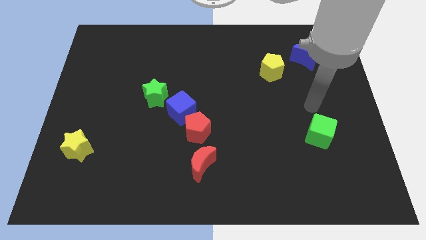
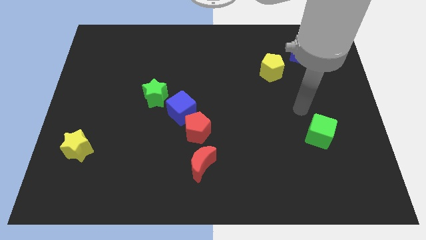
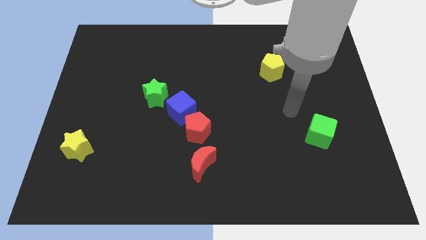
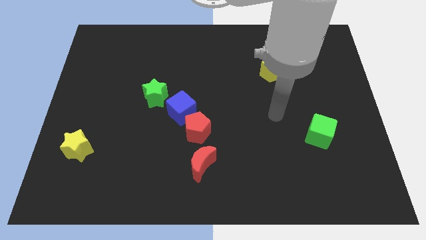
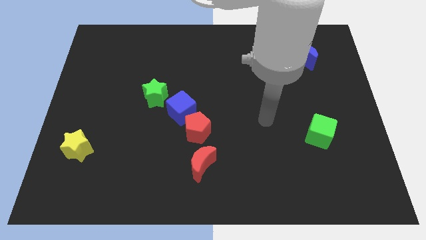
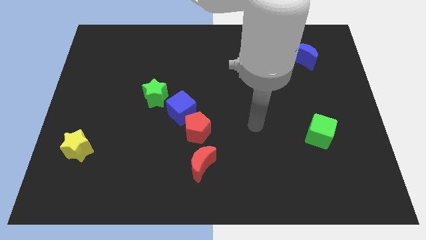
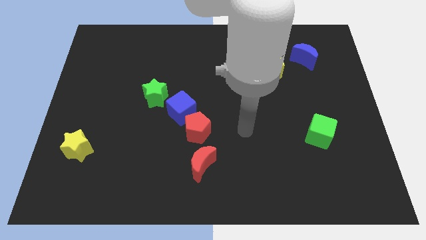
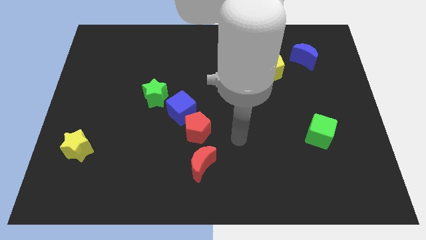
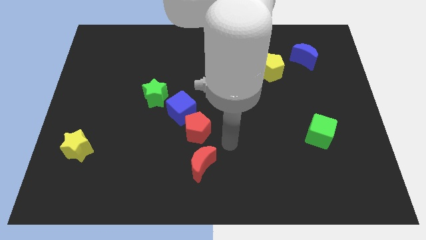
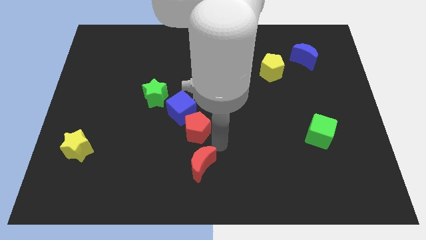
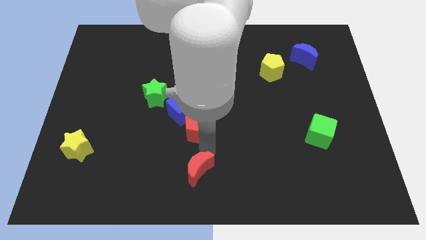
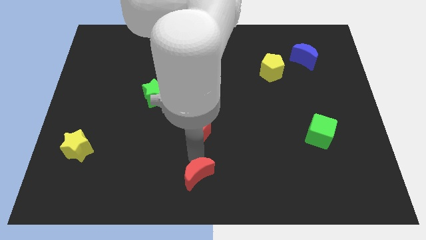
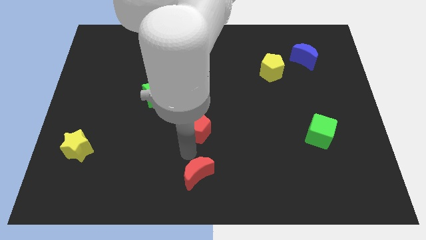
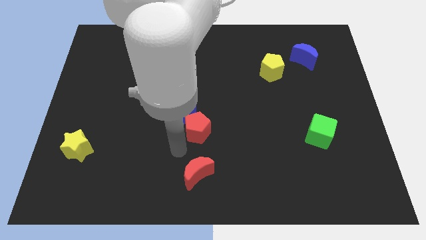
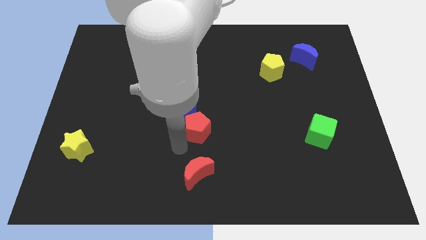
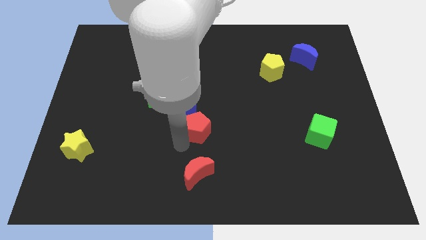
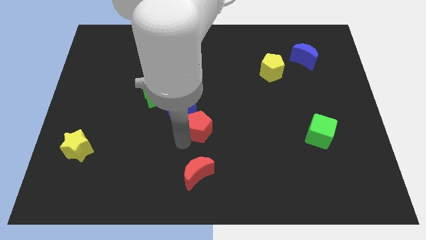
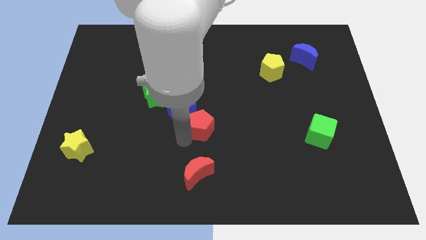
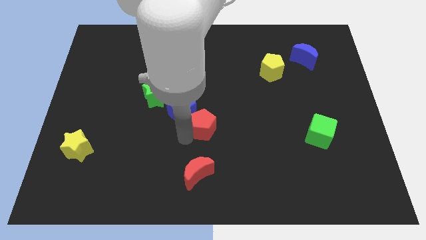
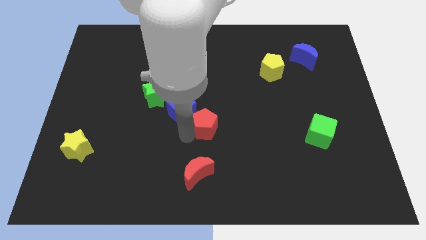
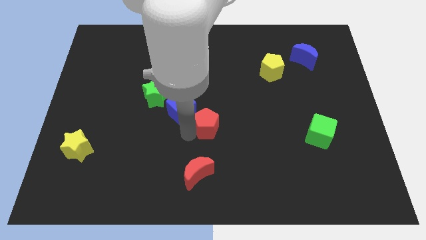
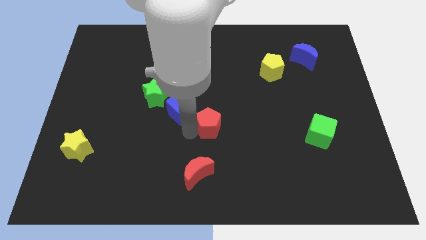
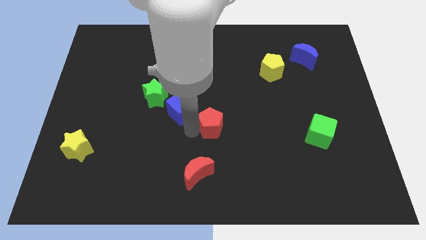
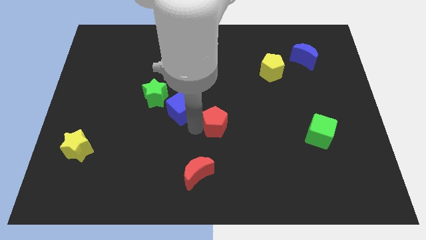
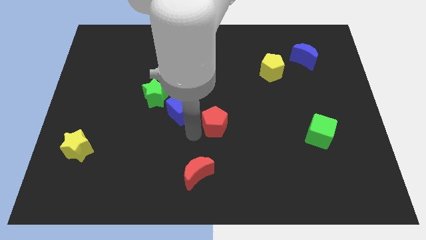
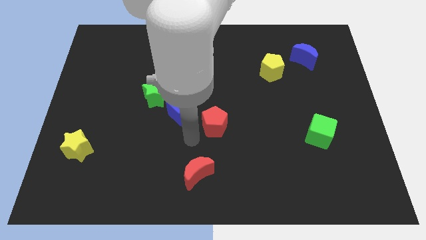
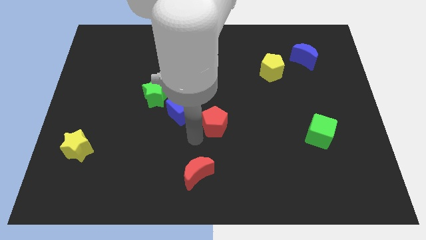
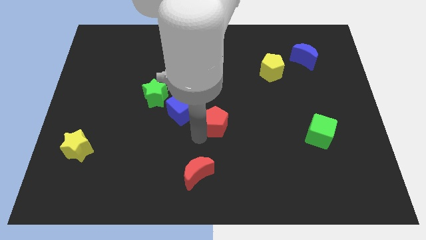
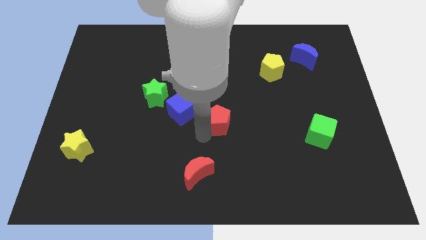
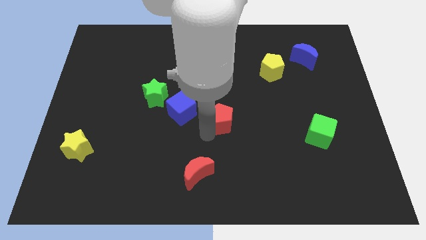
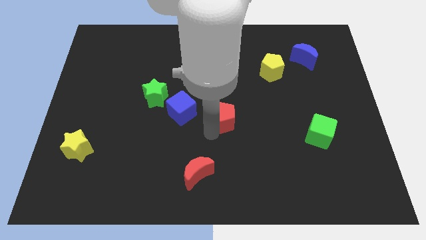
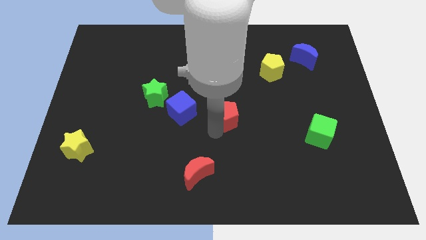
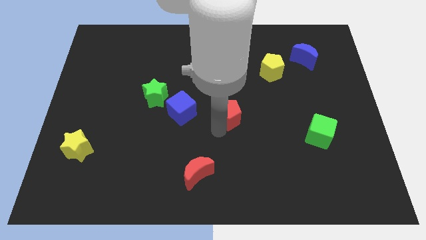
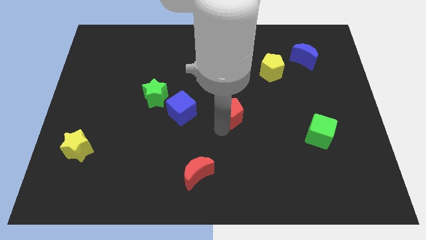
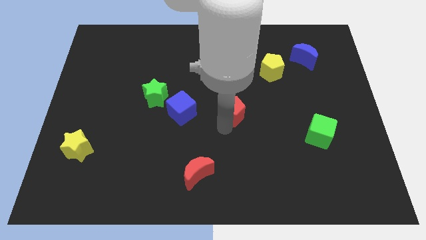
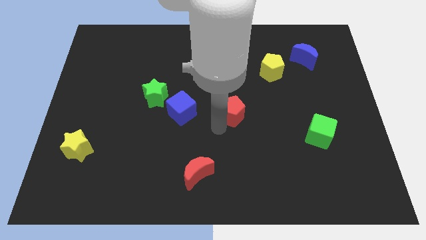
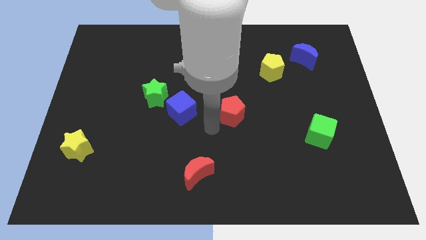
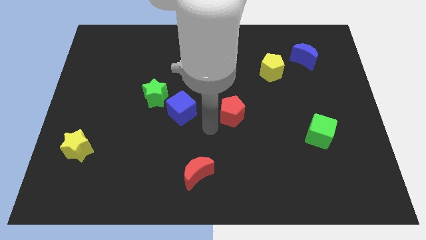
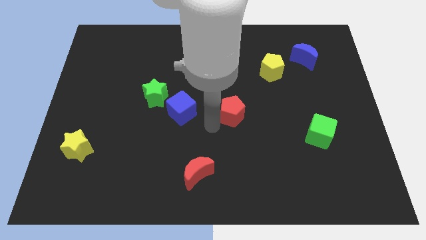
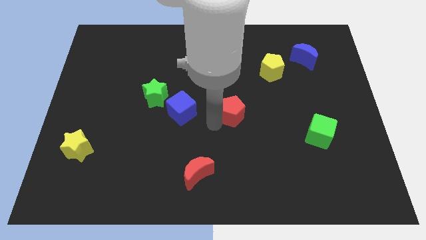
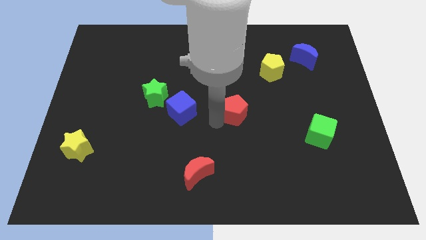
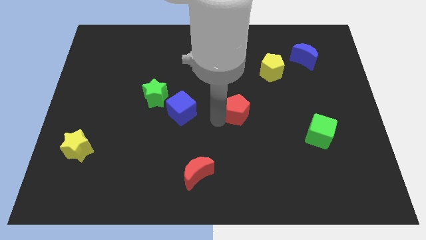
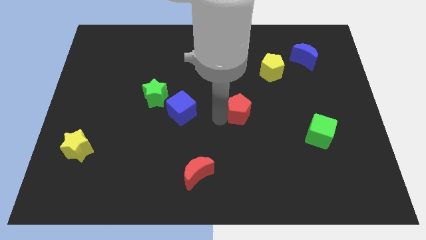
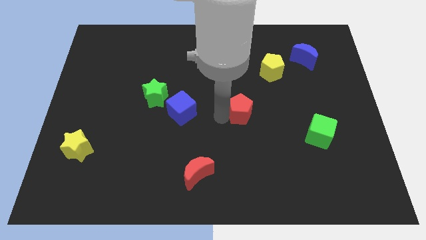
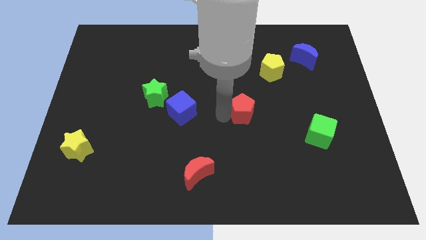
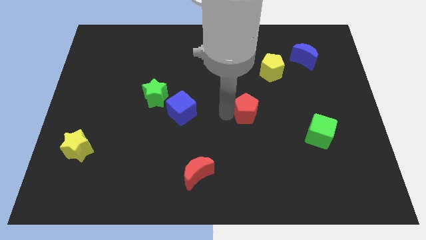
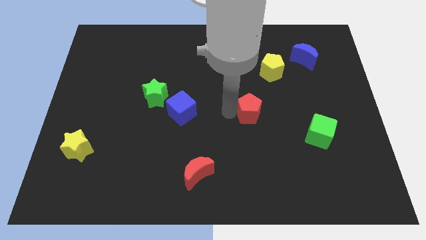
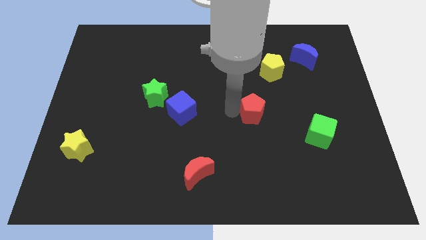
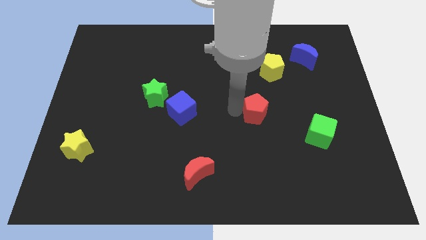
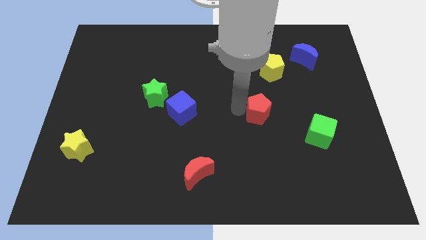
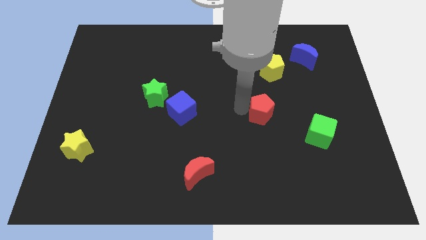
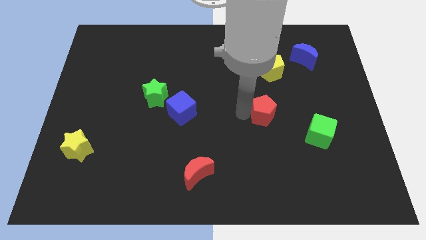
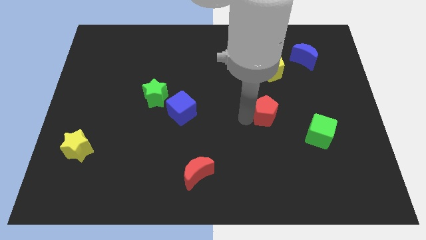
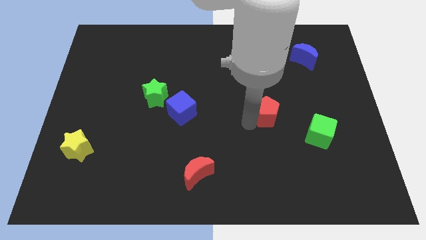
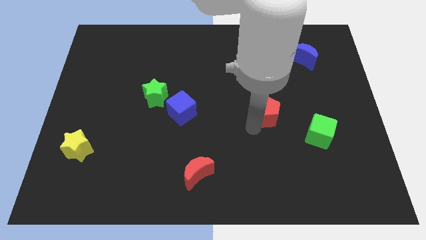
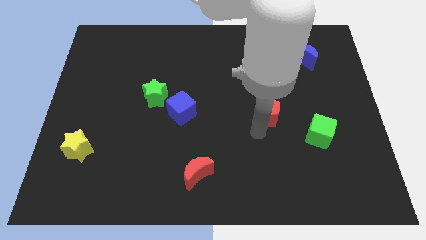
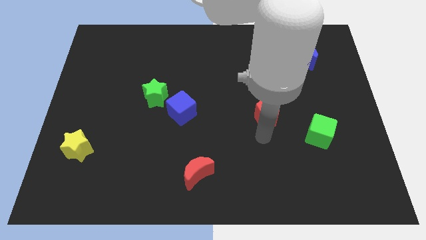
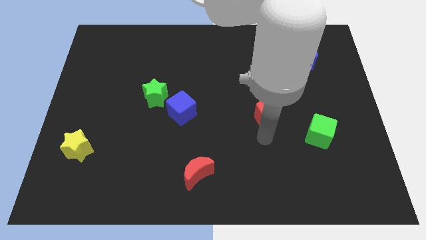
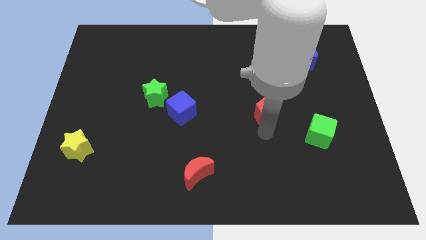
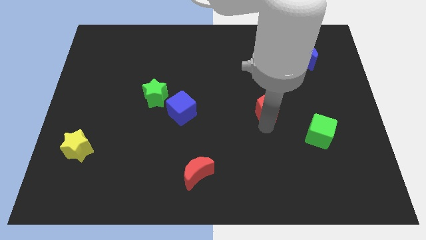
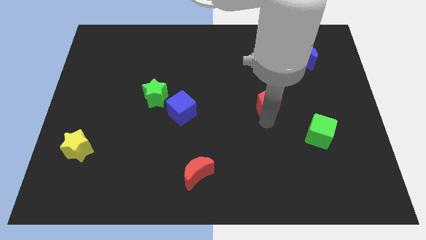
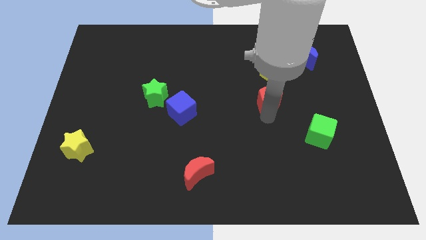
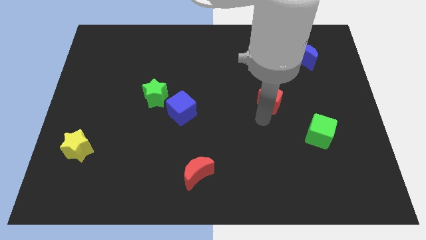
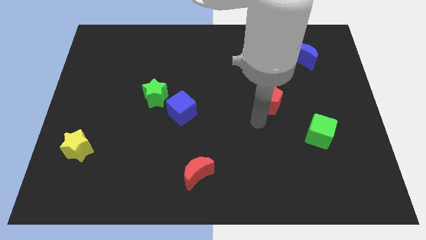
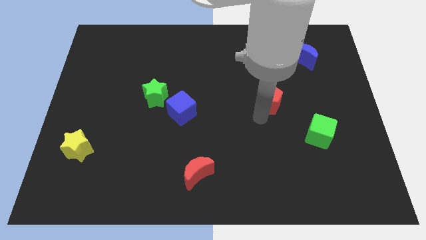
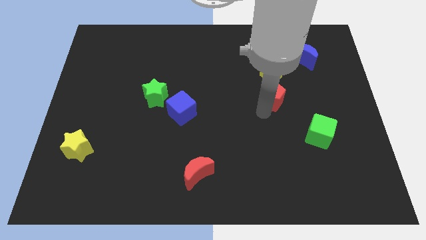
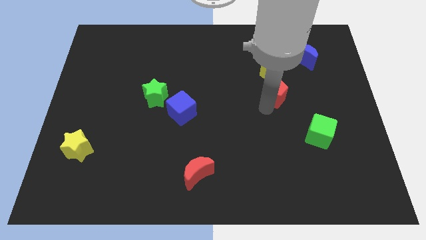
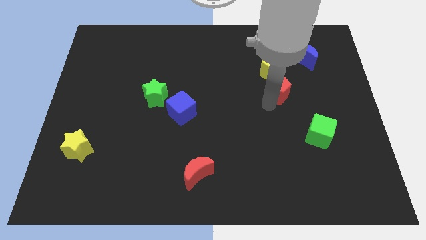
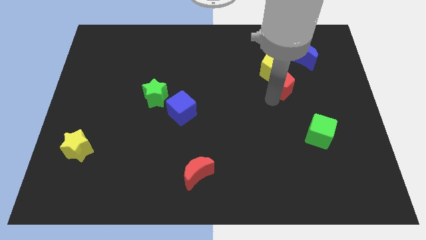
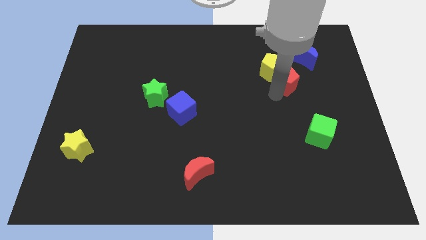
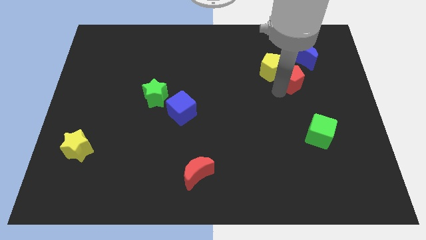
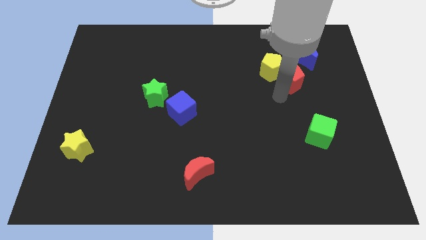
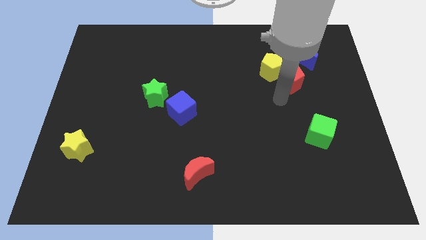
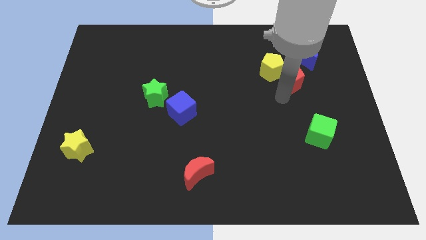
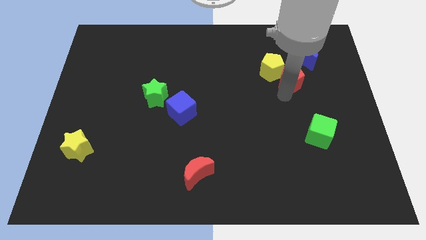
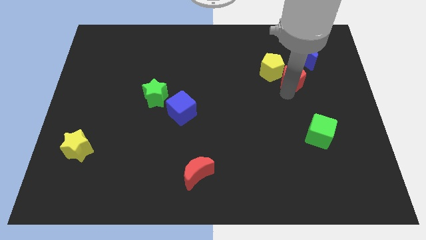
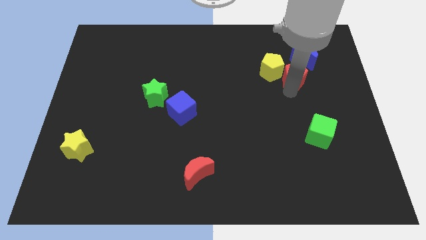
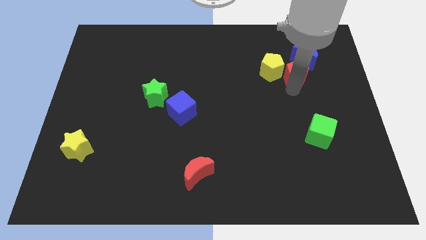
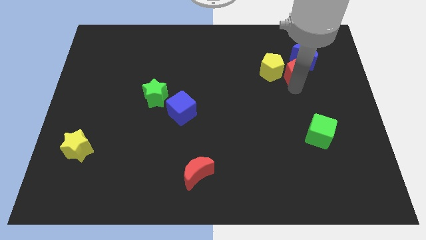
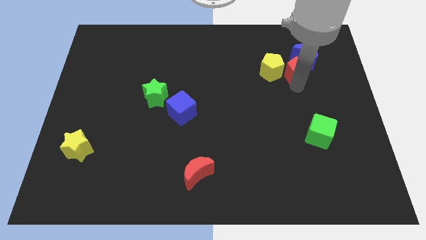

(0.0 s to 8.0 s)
move the red pentagon towards the blue moon
